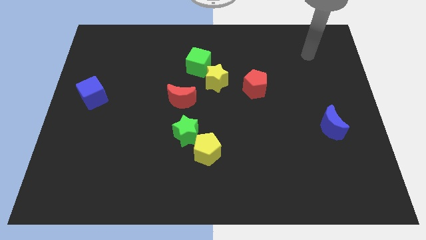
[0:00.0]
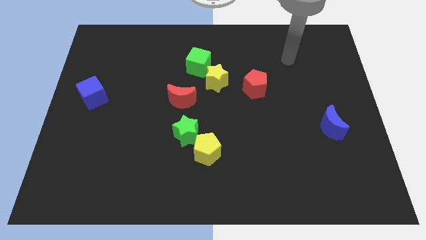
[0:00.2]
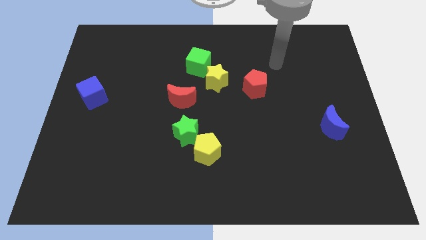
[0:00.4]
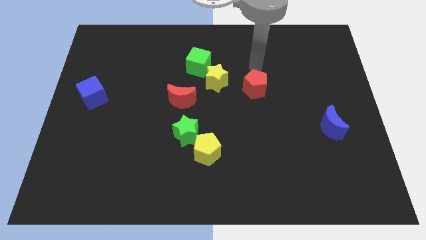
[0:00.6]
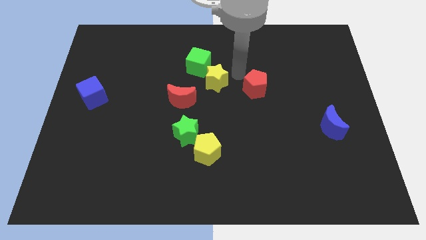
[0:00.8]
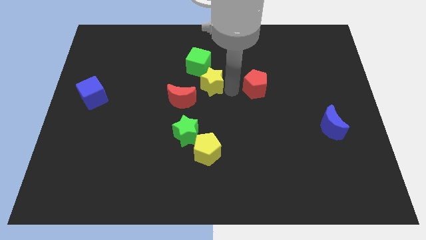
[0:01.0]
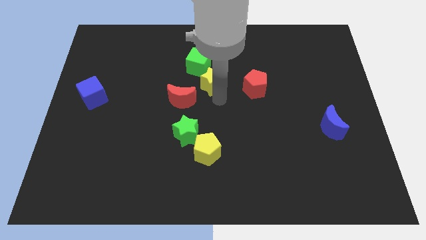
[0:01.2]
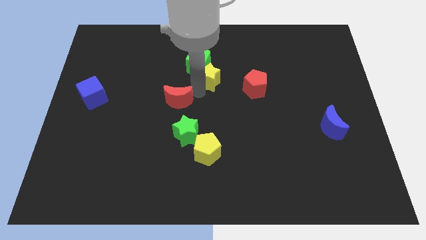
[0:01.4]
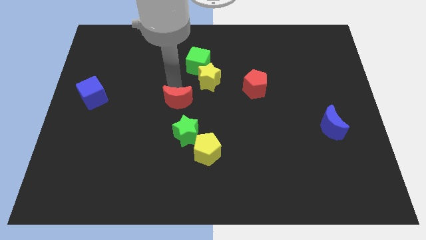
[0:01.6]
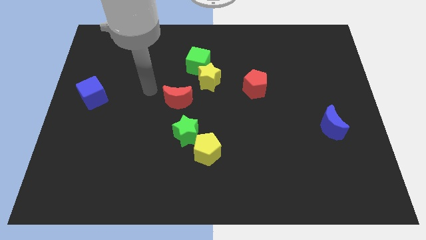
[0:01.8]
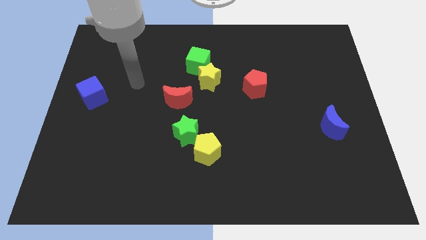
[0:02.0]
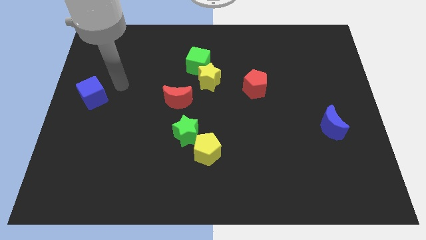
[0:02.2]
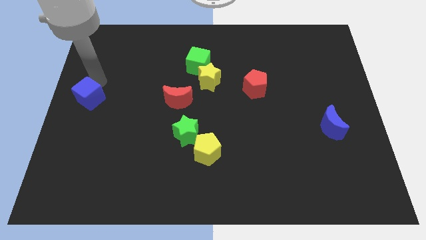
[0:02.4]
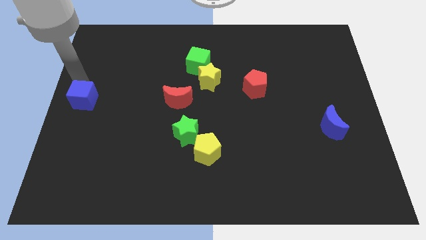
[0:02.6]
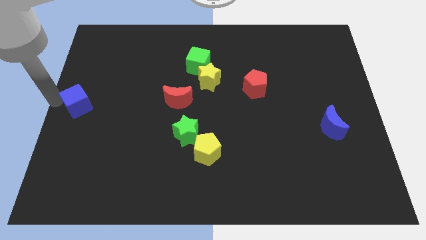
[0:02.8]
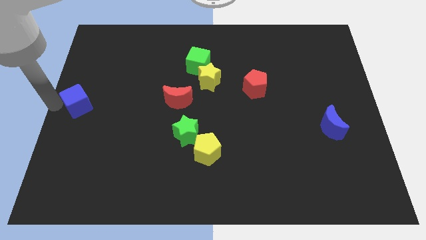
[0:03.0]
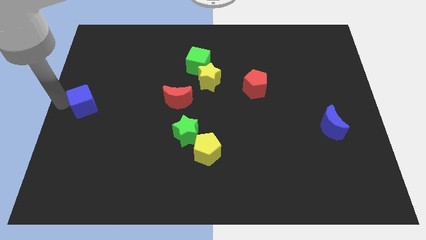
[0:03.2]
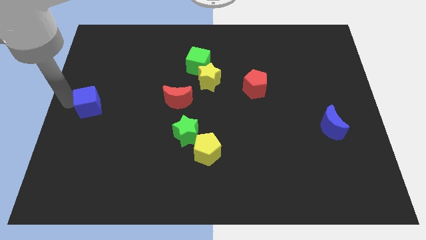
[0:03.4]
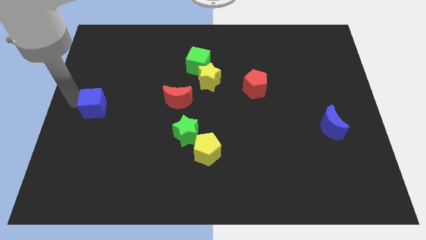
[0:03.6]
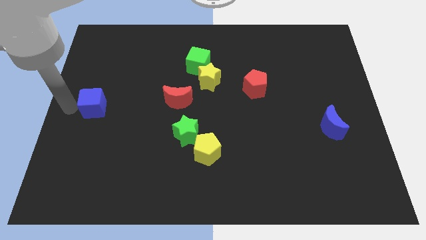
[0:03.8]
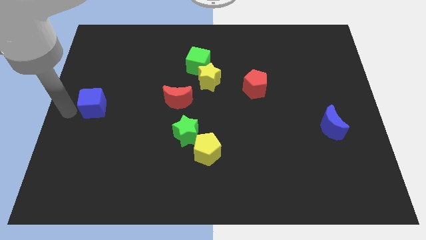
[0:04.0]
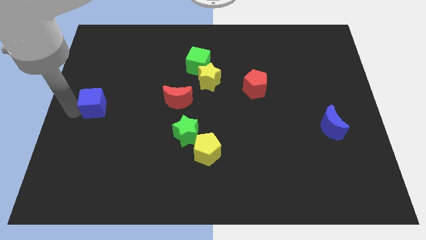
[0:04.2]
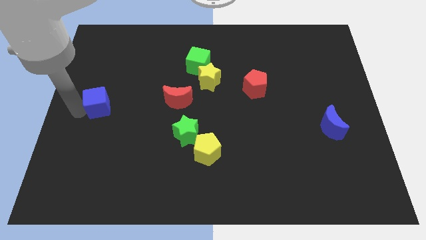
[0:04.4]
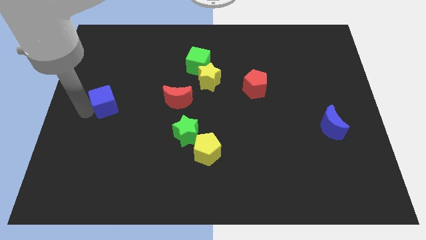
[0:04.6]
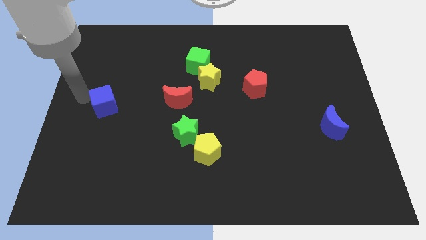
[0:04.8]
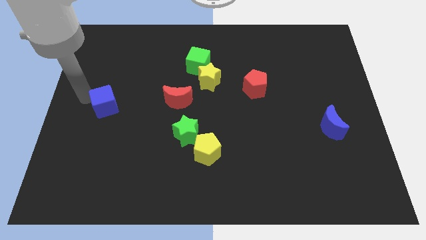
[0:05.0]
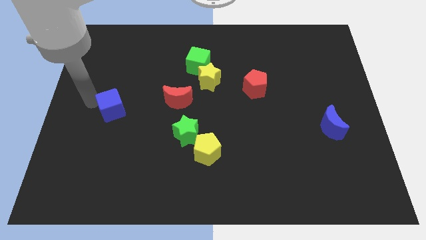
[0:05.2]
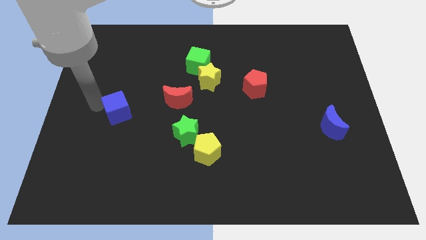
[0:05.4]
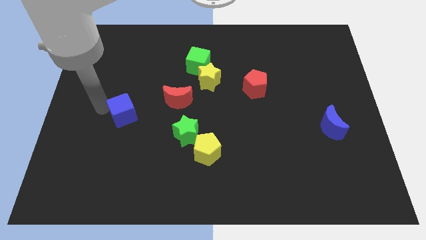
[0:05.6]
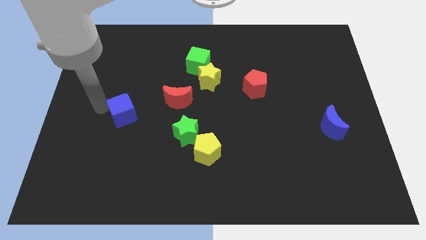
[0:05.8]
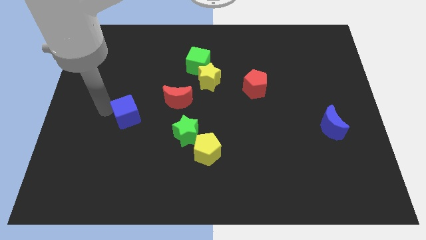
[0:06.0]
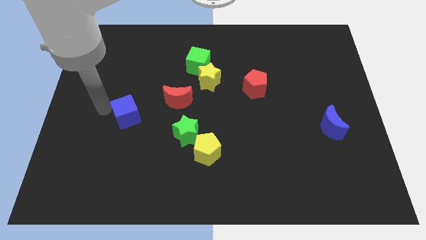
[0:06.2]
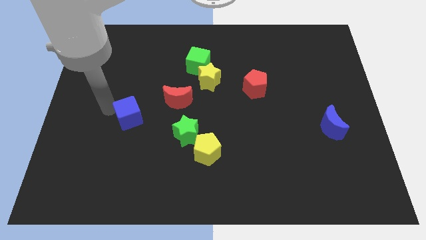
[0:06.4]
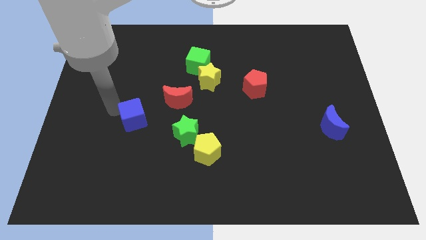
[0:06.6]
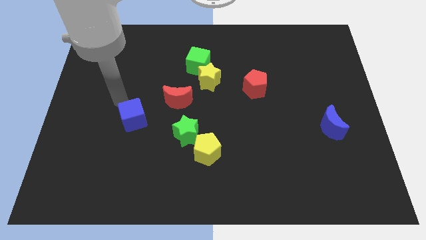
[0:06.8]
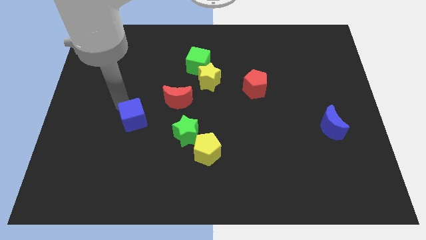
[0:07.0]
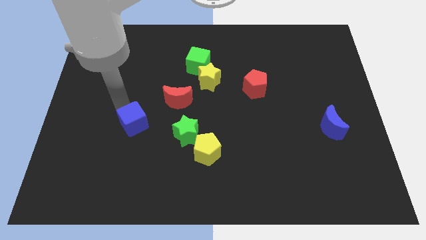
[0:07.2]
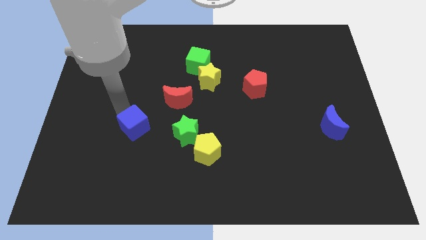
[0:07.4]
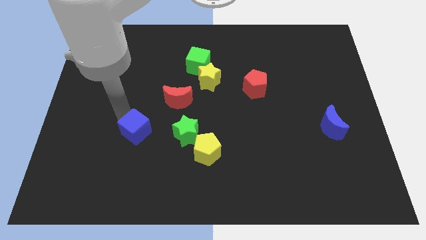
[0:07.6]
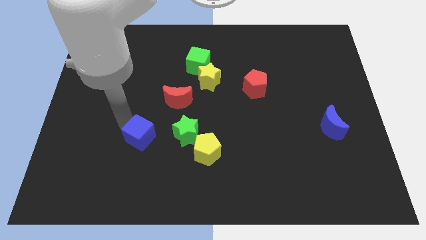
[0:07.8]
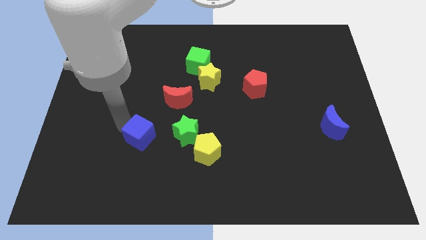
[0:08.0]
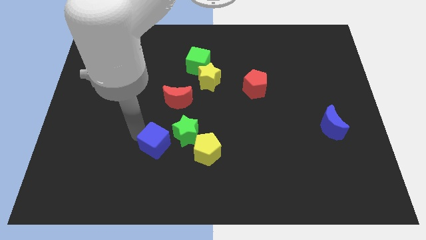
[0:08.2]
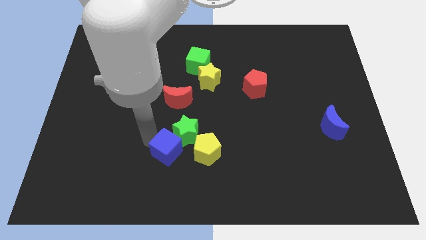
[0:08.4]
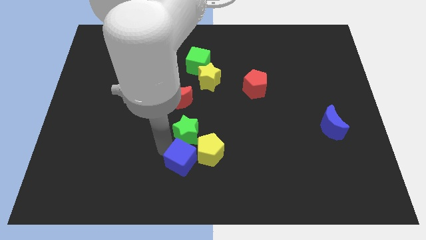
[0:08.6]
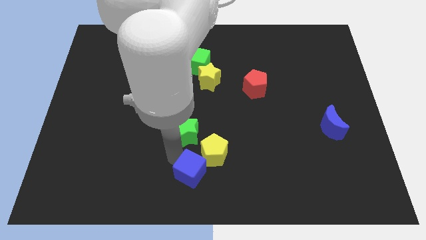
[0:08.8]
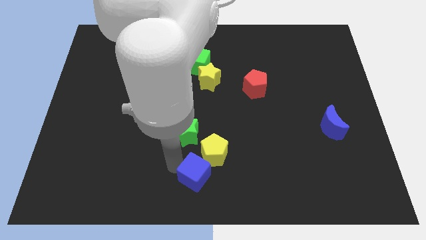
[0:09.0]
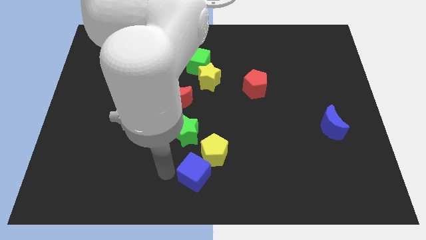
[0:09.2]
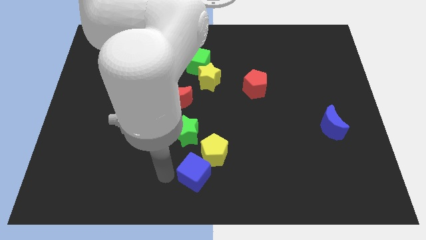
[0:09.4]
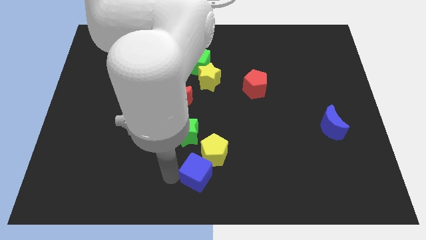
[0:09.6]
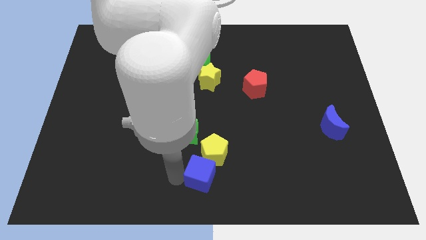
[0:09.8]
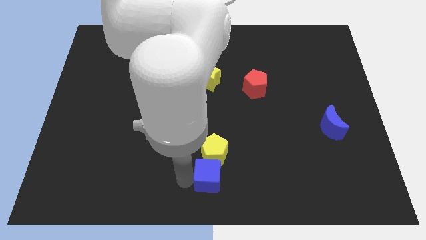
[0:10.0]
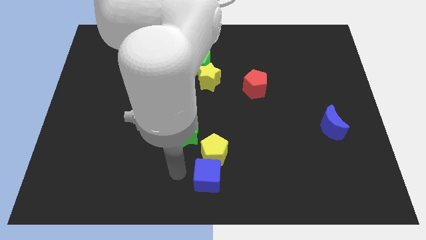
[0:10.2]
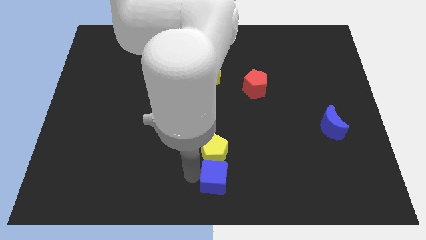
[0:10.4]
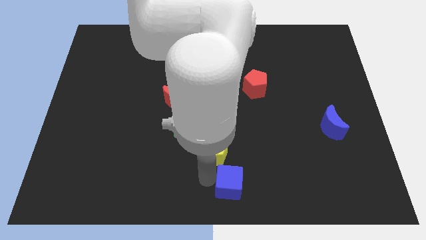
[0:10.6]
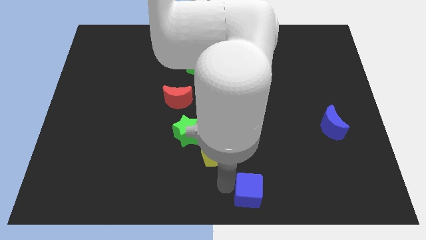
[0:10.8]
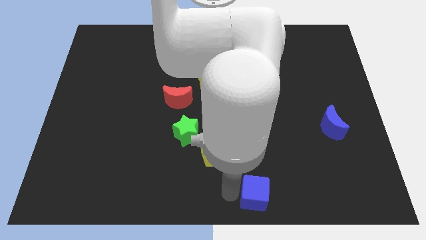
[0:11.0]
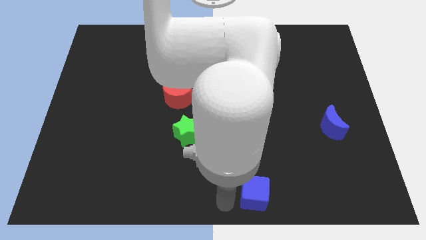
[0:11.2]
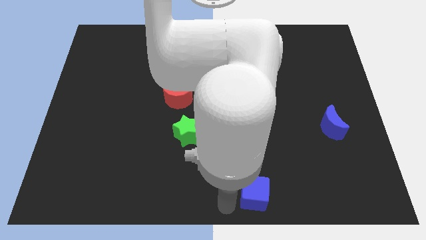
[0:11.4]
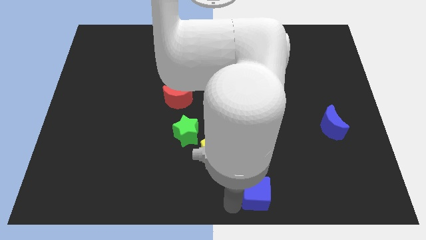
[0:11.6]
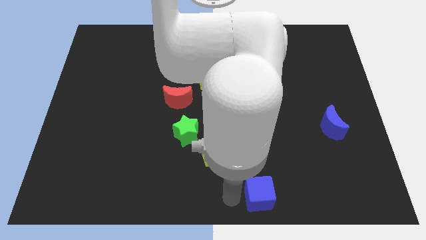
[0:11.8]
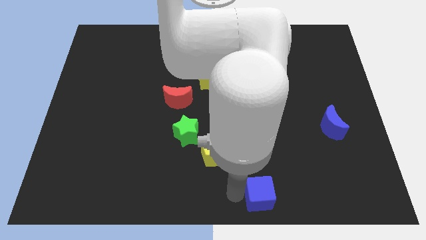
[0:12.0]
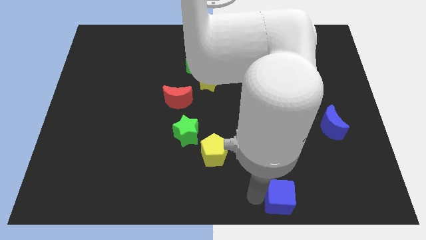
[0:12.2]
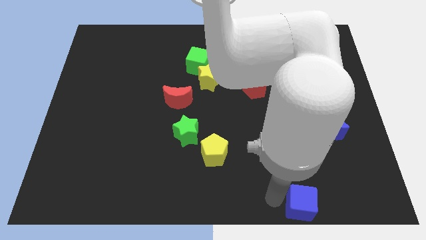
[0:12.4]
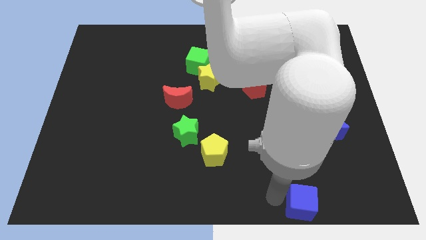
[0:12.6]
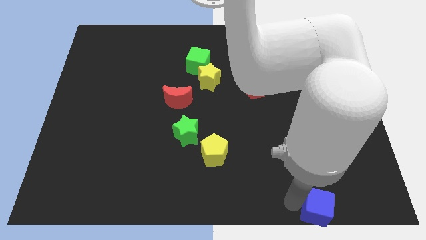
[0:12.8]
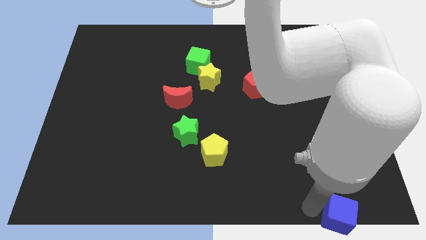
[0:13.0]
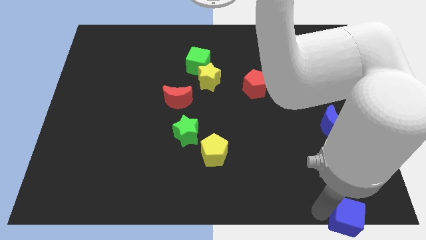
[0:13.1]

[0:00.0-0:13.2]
push the blue cube to the bottom right corner
